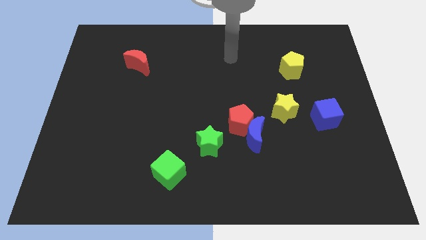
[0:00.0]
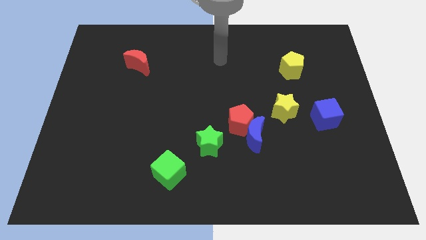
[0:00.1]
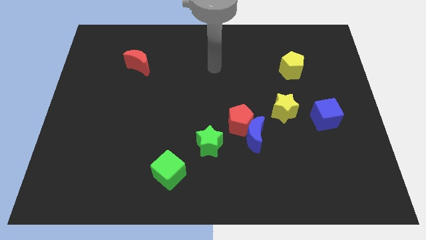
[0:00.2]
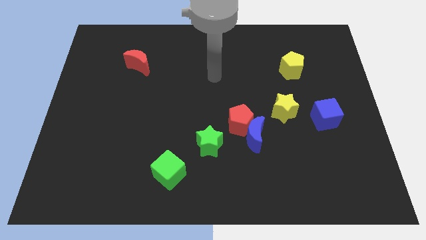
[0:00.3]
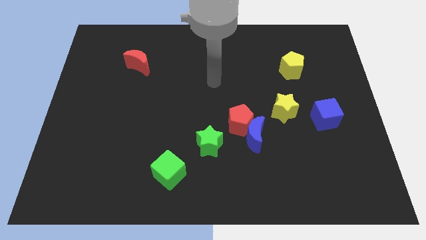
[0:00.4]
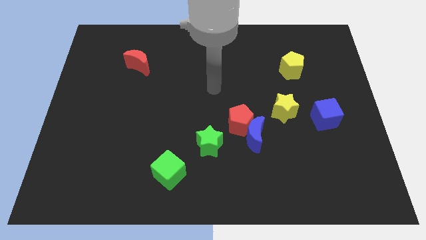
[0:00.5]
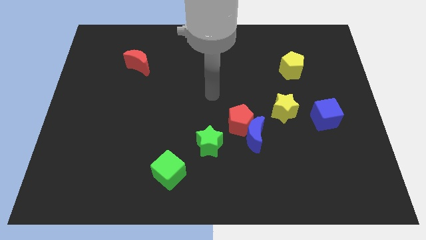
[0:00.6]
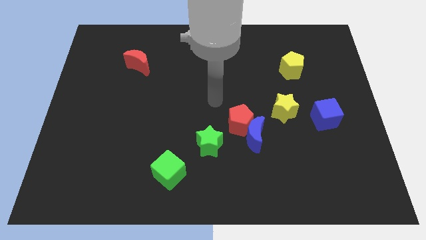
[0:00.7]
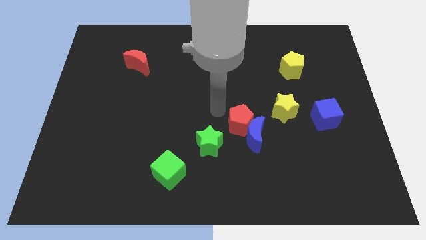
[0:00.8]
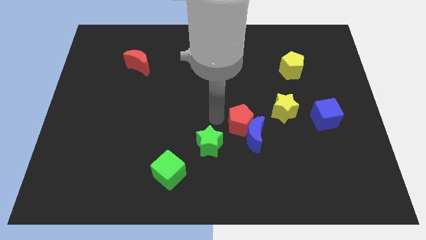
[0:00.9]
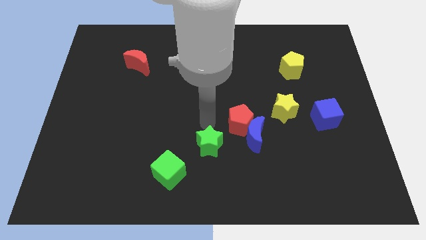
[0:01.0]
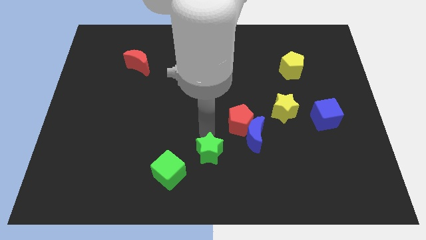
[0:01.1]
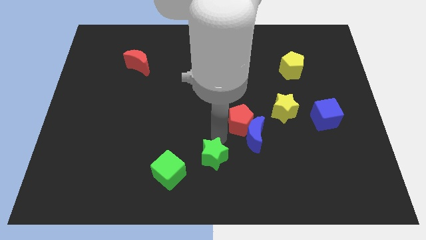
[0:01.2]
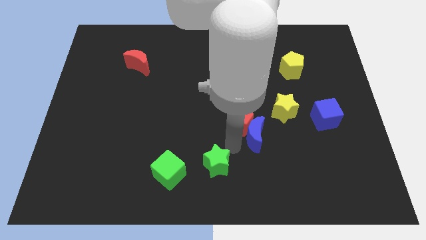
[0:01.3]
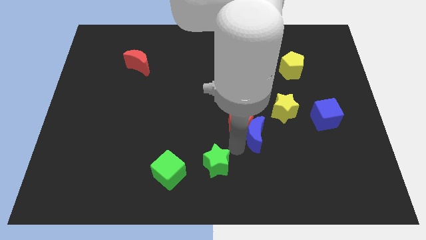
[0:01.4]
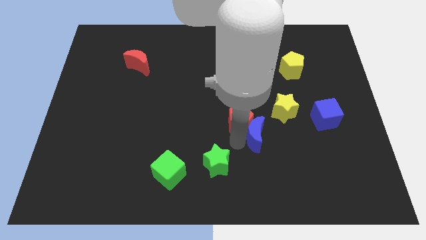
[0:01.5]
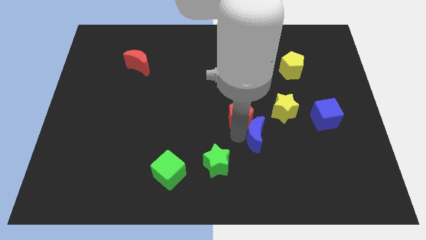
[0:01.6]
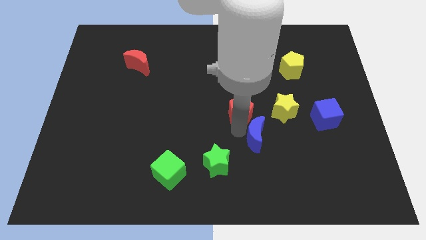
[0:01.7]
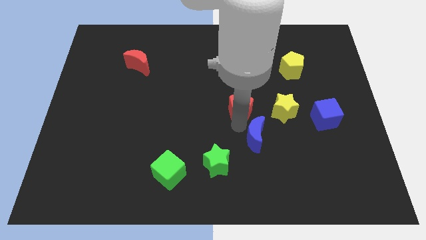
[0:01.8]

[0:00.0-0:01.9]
pull the red pentagon apart from the blue moon and green star

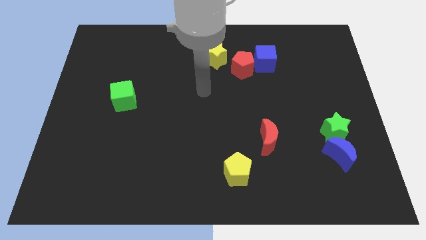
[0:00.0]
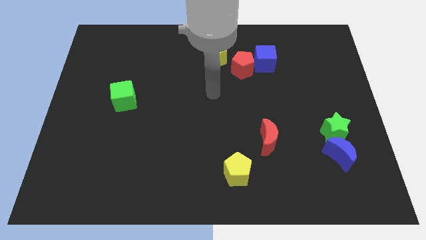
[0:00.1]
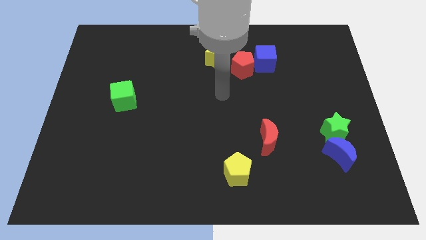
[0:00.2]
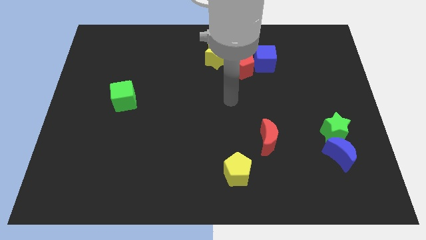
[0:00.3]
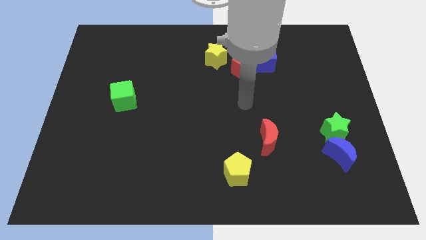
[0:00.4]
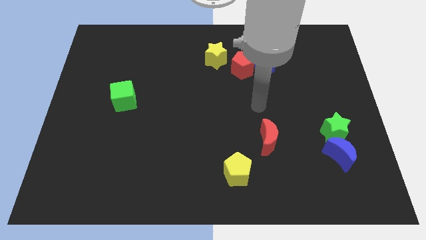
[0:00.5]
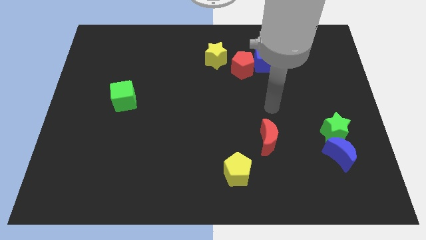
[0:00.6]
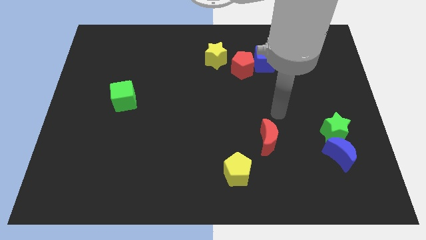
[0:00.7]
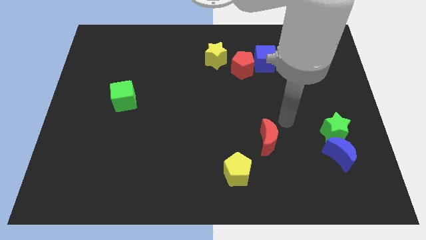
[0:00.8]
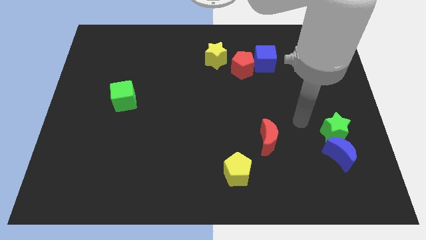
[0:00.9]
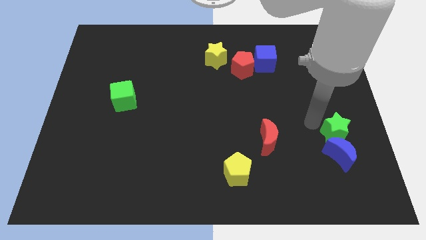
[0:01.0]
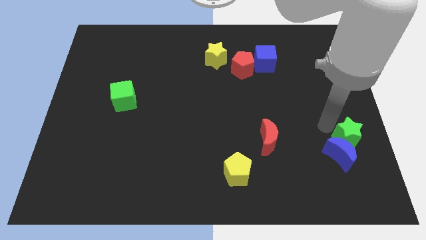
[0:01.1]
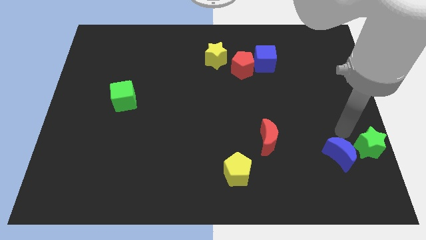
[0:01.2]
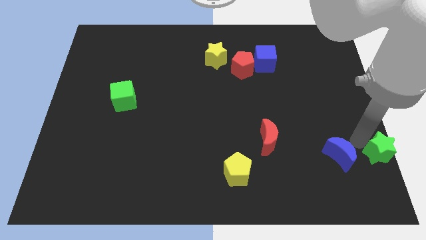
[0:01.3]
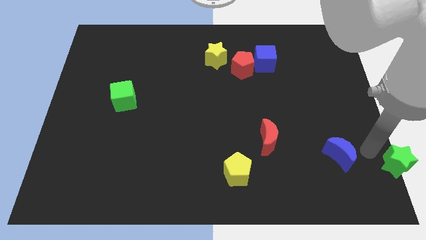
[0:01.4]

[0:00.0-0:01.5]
move the blue moon away from the green star

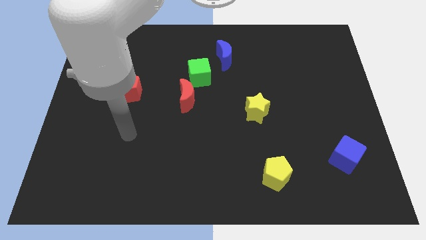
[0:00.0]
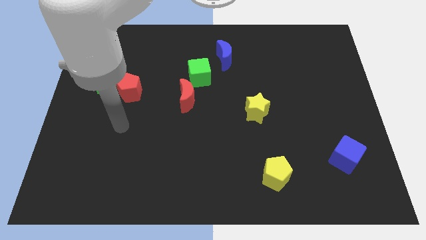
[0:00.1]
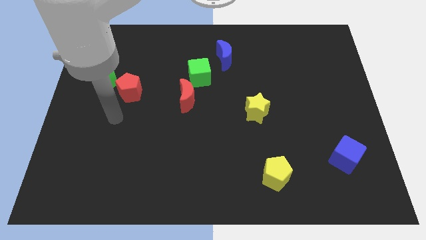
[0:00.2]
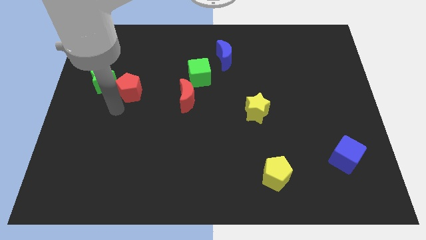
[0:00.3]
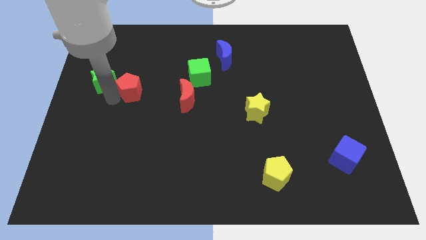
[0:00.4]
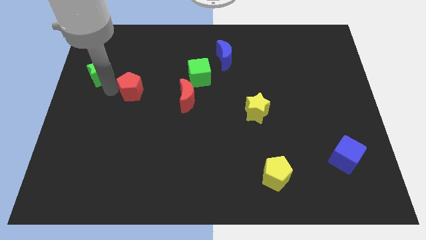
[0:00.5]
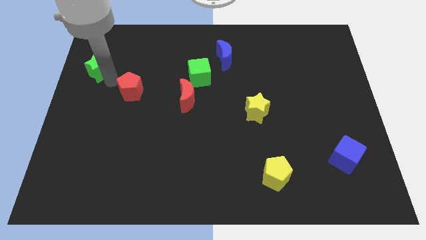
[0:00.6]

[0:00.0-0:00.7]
separate the red pentagon from the green star

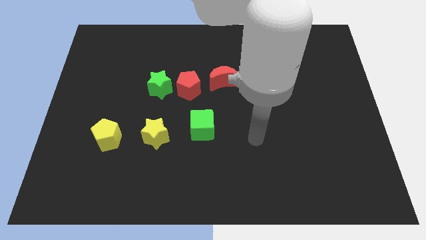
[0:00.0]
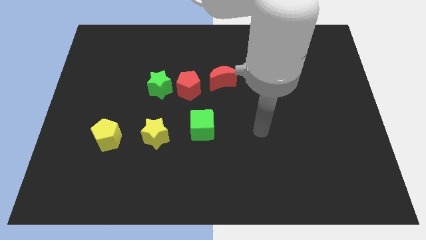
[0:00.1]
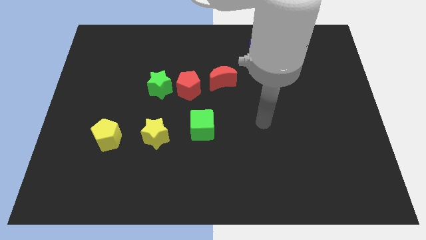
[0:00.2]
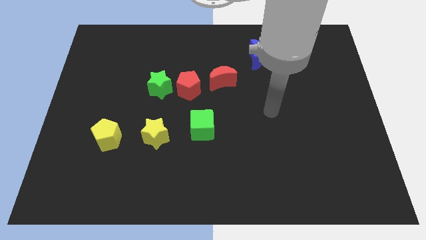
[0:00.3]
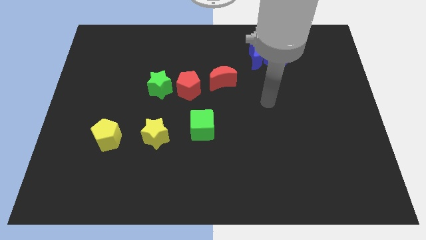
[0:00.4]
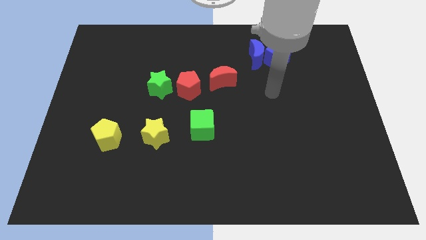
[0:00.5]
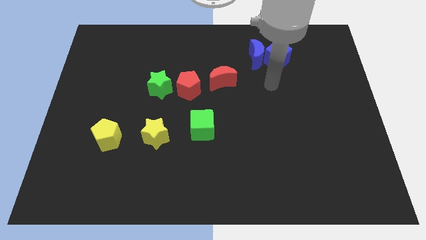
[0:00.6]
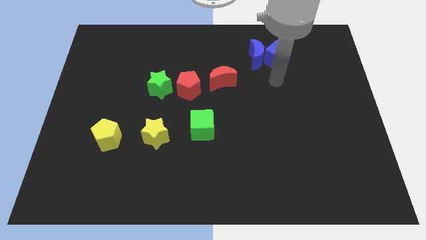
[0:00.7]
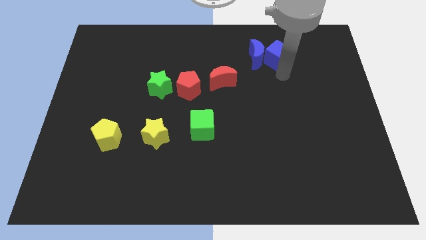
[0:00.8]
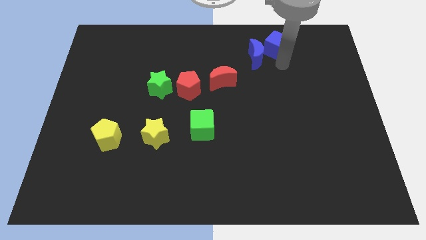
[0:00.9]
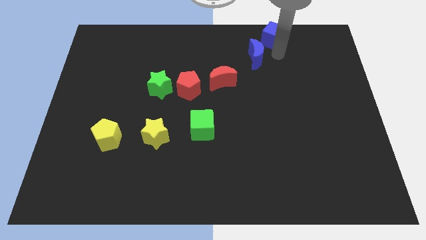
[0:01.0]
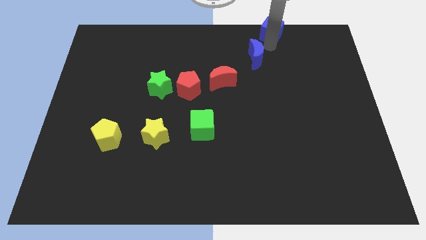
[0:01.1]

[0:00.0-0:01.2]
move the blue moon away from the blue cube

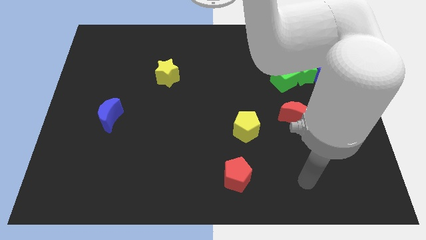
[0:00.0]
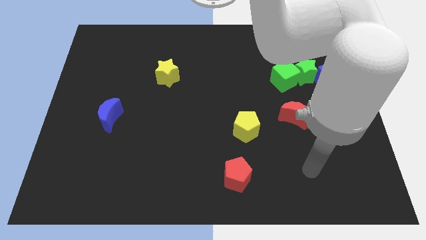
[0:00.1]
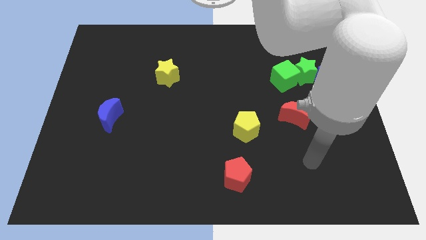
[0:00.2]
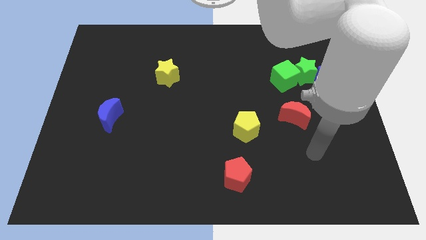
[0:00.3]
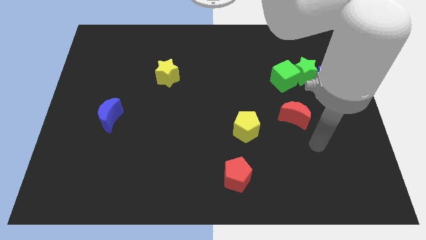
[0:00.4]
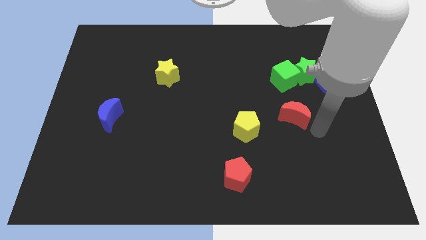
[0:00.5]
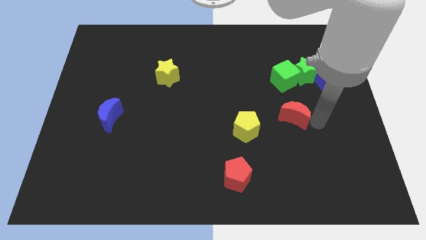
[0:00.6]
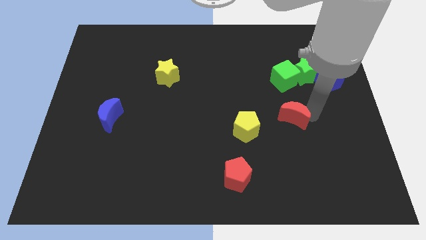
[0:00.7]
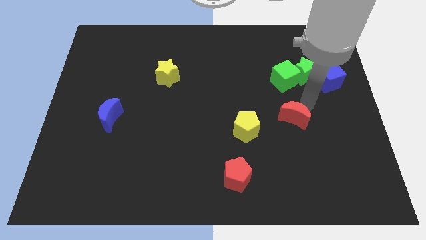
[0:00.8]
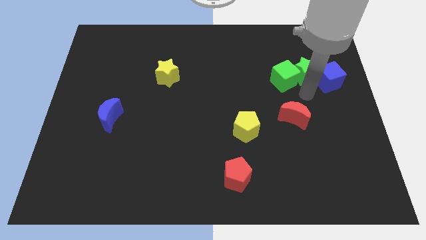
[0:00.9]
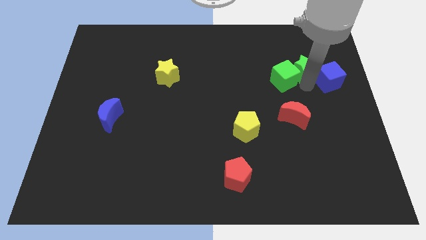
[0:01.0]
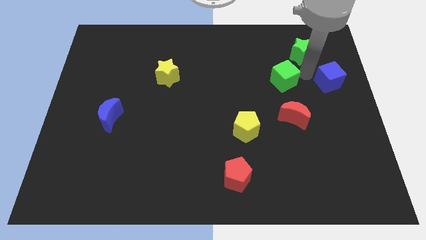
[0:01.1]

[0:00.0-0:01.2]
separate the green cube from the green star

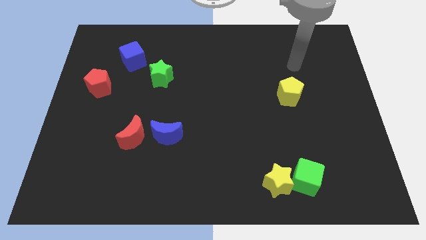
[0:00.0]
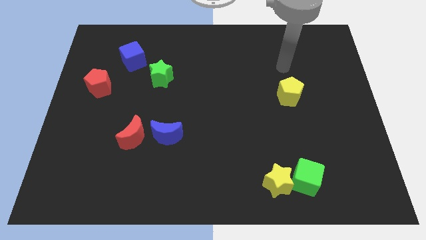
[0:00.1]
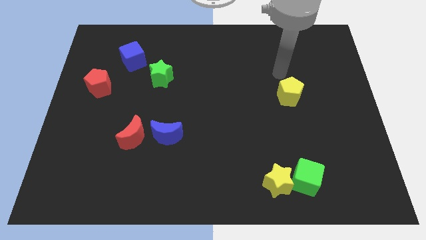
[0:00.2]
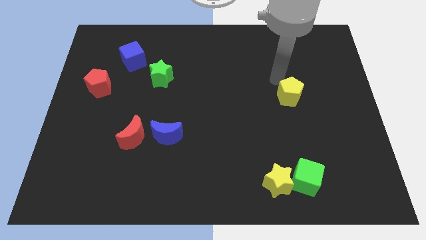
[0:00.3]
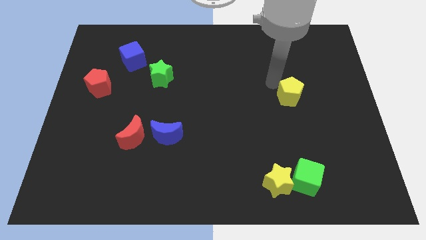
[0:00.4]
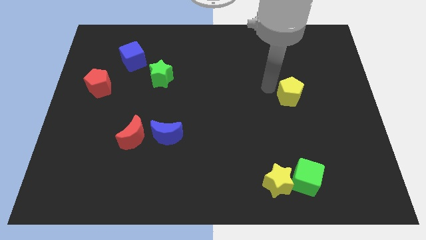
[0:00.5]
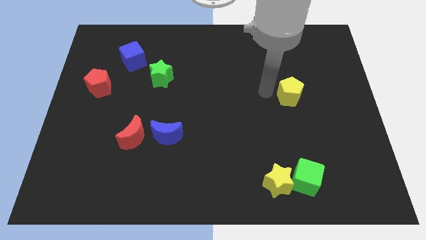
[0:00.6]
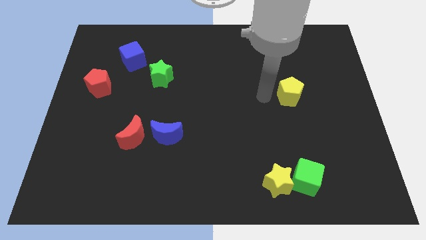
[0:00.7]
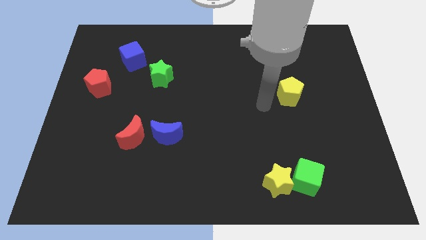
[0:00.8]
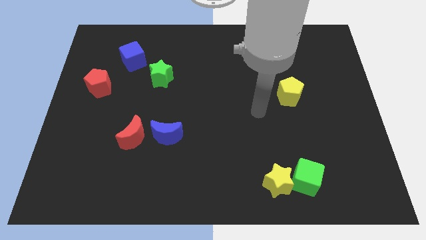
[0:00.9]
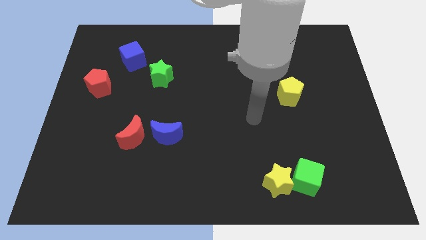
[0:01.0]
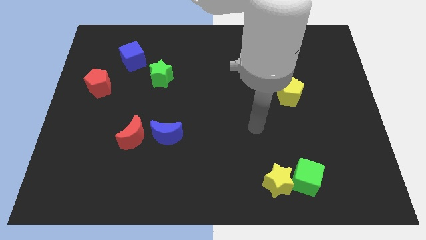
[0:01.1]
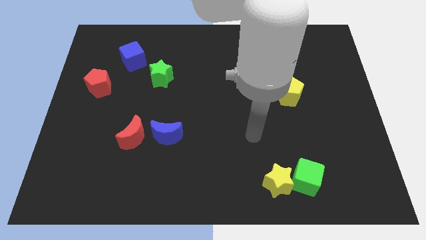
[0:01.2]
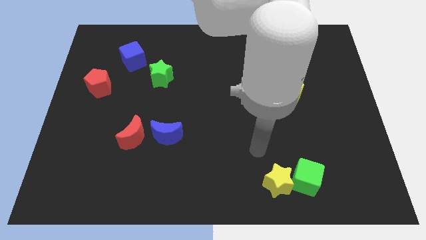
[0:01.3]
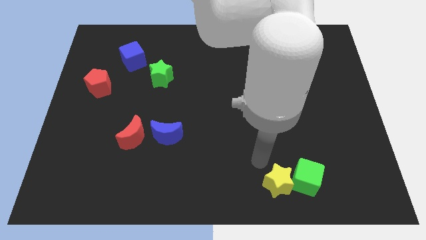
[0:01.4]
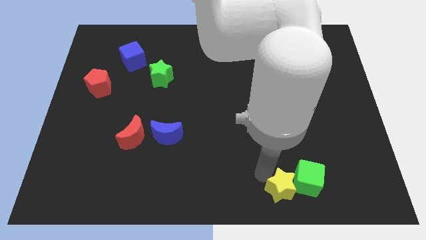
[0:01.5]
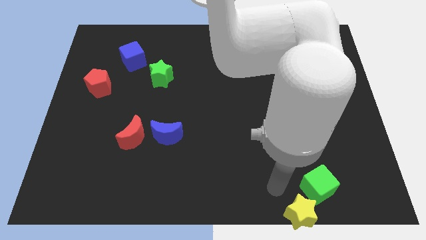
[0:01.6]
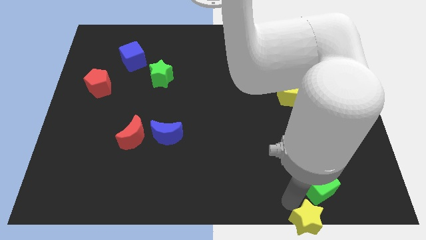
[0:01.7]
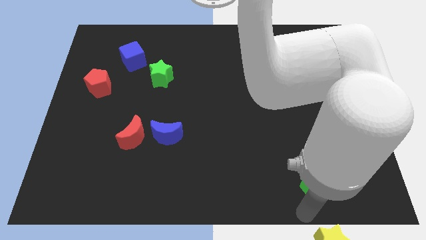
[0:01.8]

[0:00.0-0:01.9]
move the green cube away from the yellow star

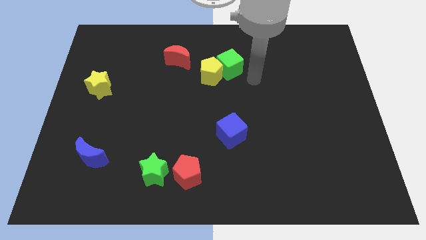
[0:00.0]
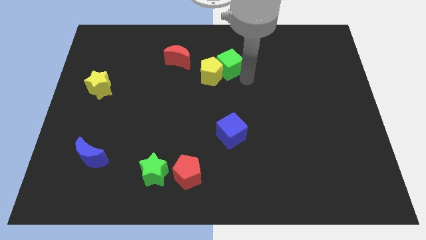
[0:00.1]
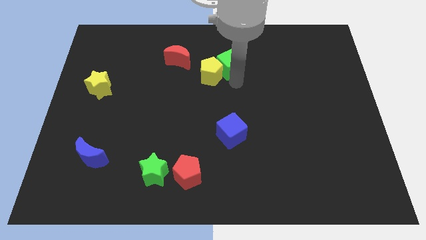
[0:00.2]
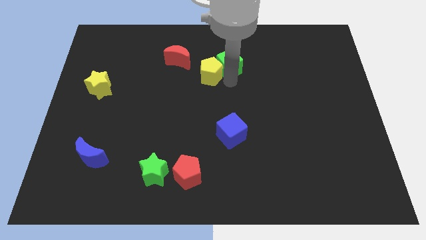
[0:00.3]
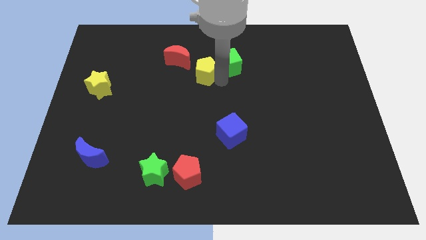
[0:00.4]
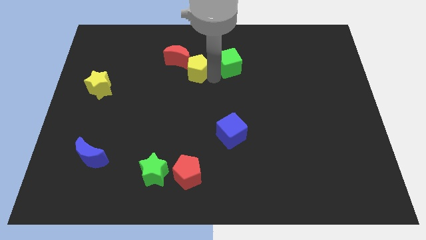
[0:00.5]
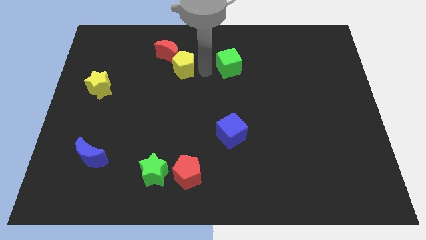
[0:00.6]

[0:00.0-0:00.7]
separate the green cube from the yellow pentagon
